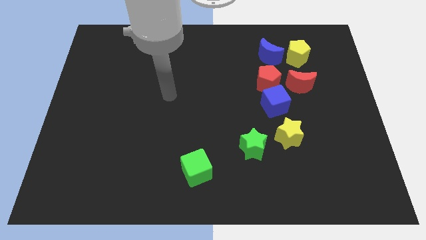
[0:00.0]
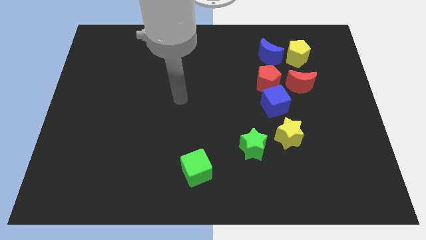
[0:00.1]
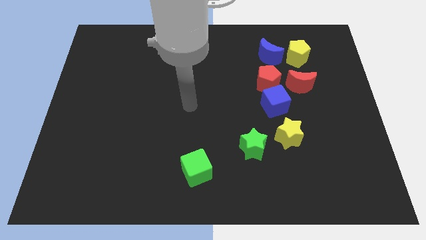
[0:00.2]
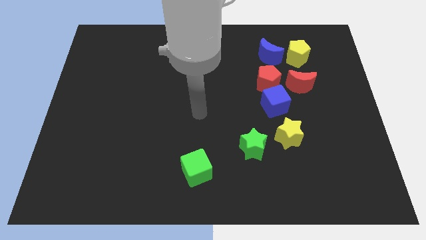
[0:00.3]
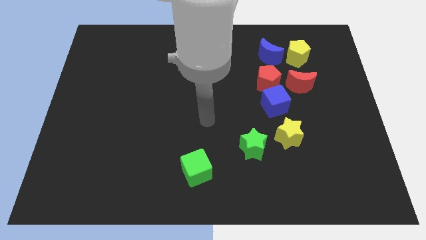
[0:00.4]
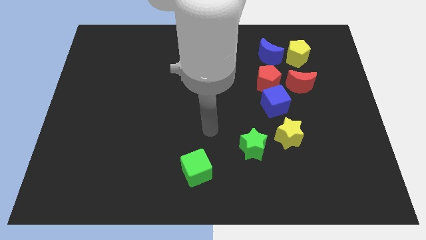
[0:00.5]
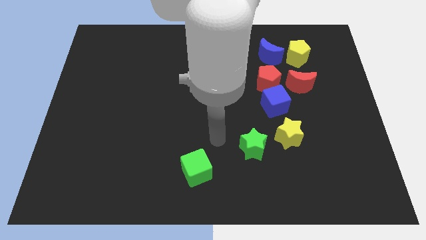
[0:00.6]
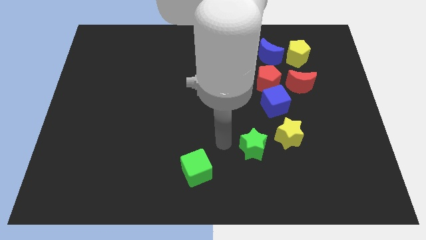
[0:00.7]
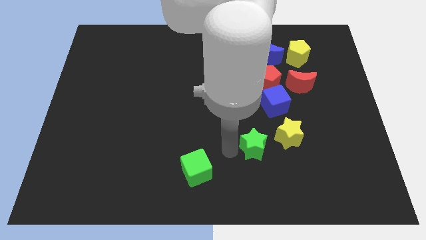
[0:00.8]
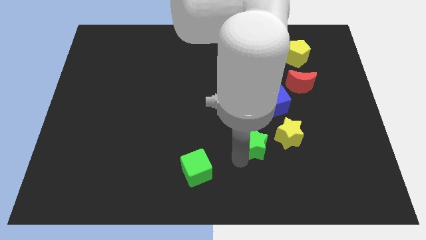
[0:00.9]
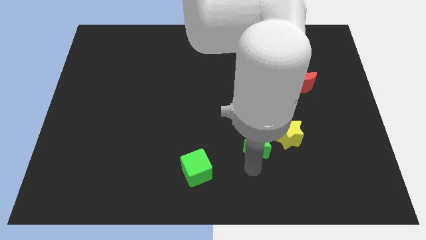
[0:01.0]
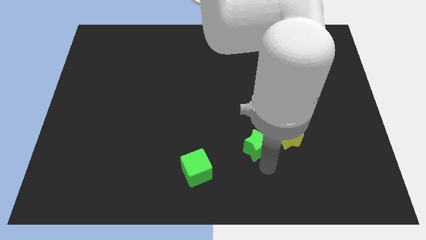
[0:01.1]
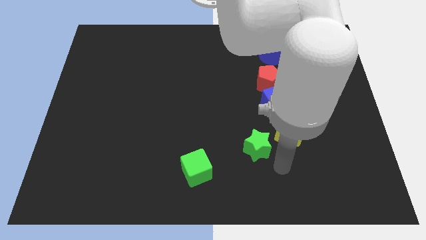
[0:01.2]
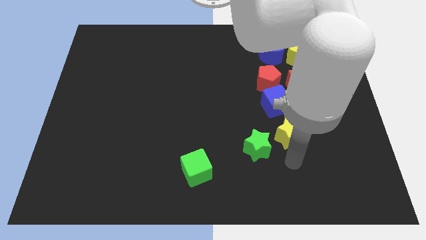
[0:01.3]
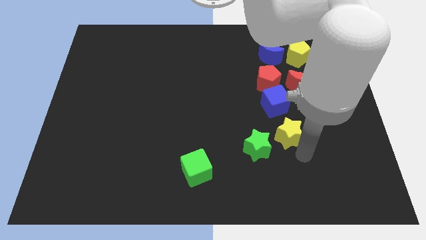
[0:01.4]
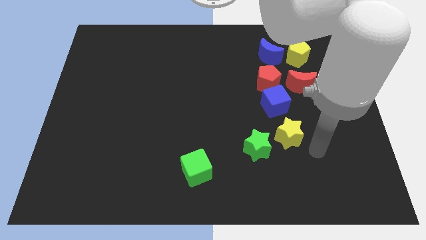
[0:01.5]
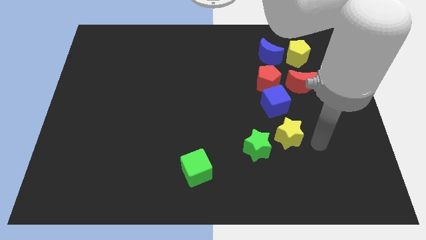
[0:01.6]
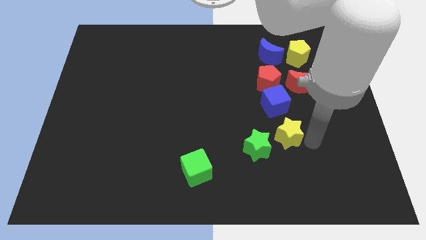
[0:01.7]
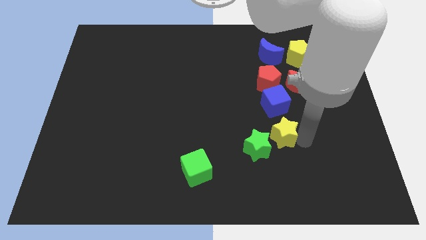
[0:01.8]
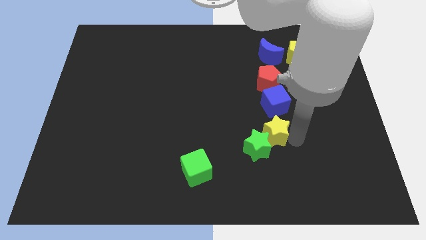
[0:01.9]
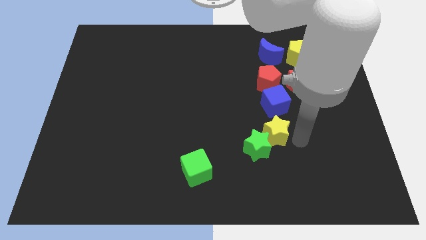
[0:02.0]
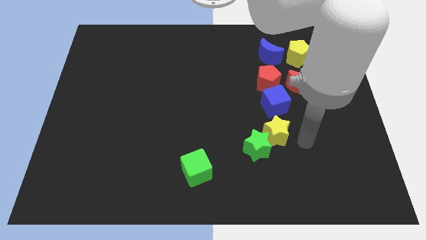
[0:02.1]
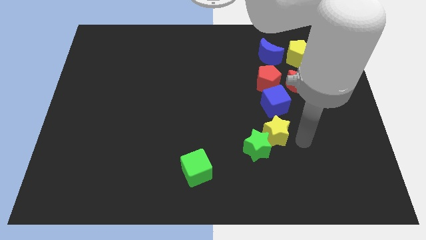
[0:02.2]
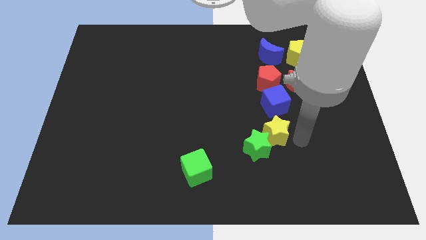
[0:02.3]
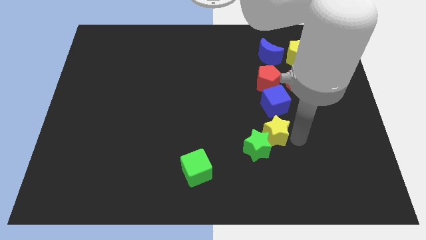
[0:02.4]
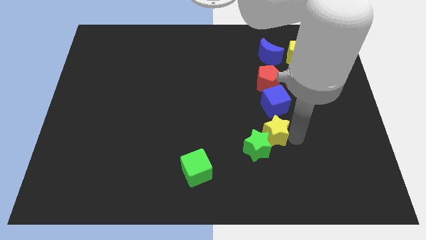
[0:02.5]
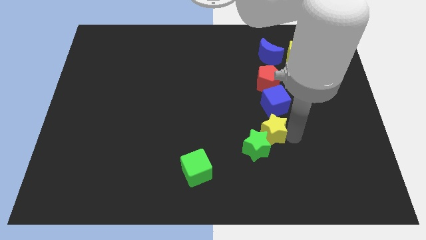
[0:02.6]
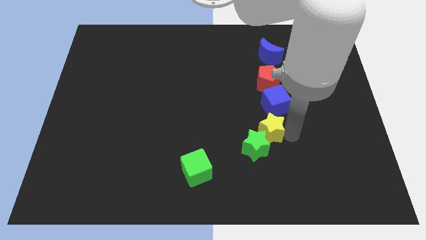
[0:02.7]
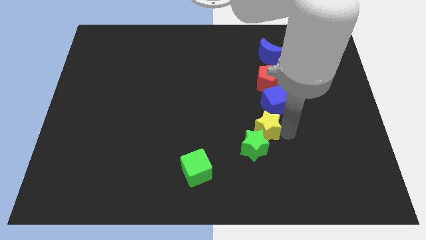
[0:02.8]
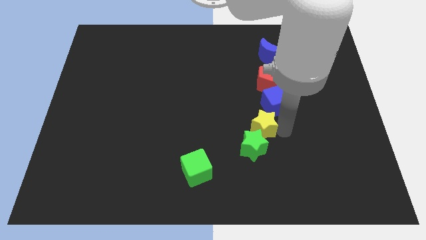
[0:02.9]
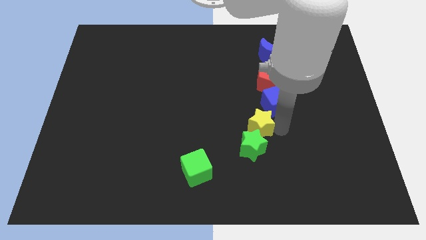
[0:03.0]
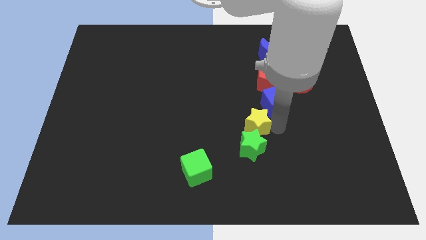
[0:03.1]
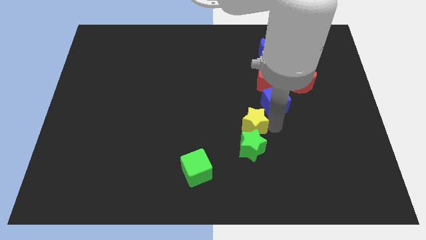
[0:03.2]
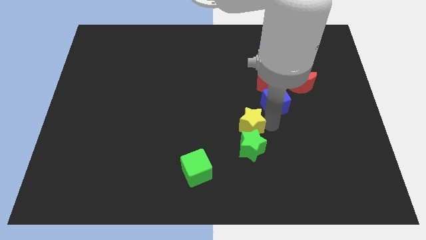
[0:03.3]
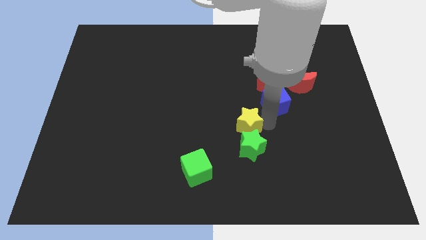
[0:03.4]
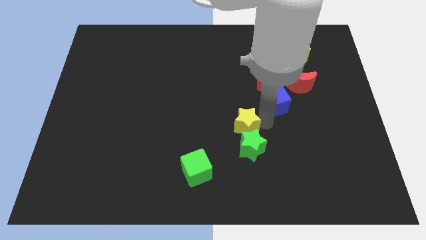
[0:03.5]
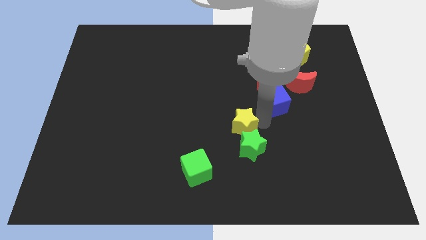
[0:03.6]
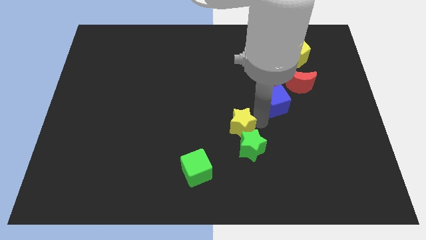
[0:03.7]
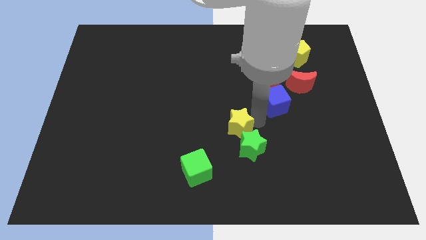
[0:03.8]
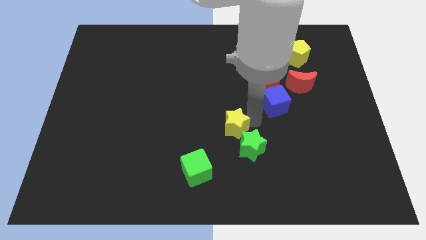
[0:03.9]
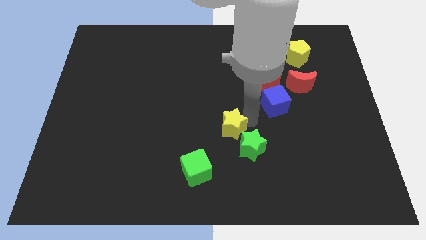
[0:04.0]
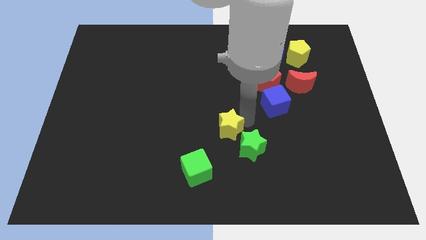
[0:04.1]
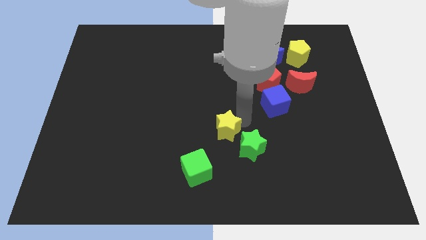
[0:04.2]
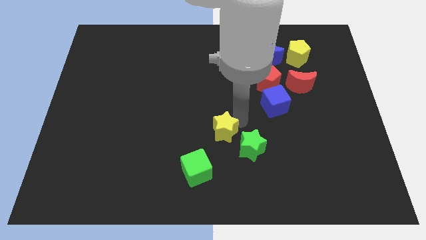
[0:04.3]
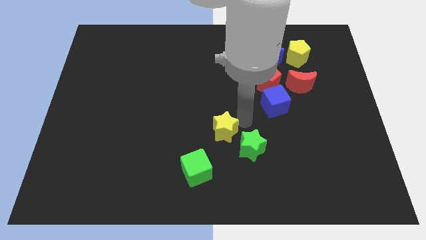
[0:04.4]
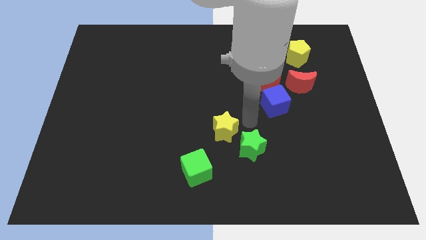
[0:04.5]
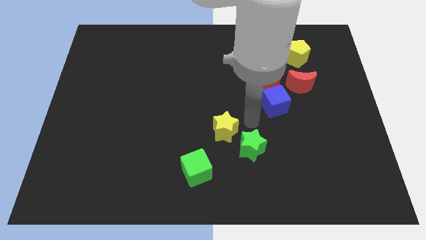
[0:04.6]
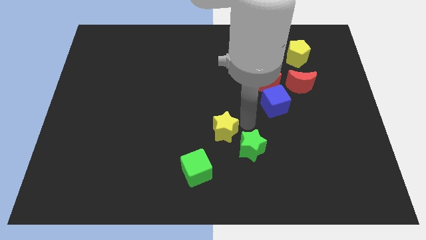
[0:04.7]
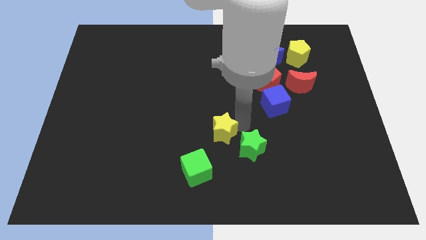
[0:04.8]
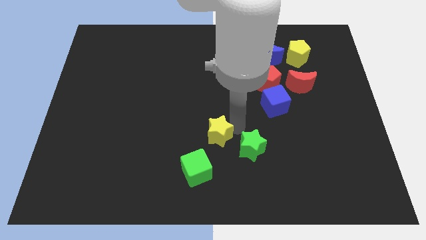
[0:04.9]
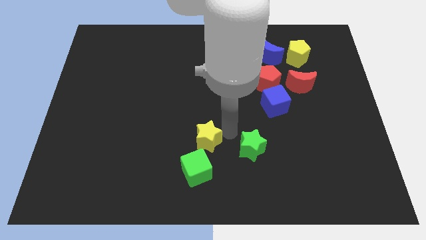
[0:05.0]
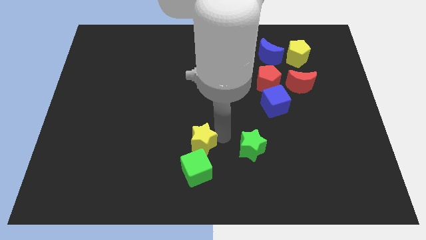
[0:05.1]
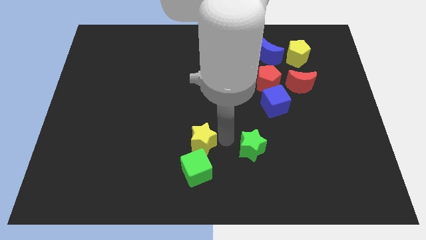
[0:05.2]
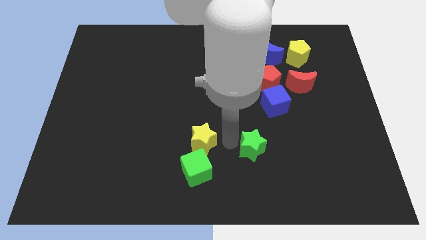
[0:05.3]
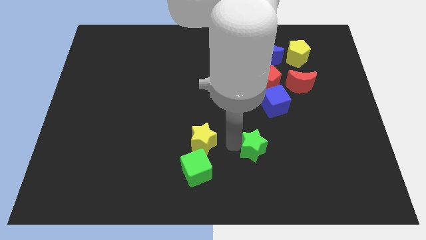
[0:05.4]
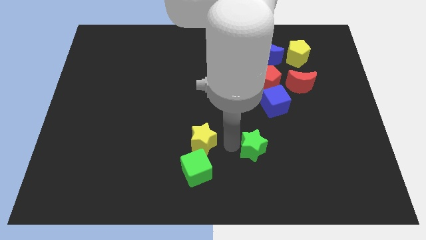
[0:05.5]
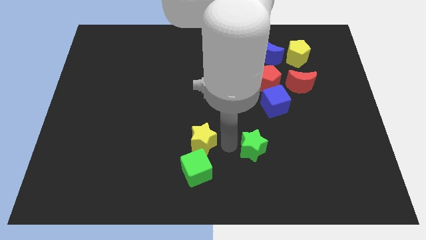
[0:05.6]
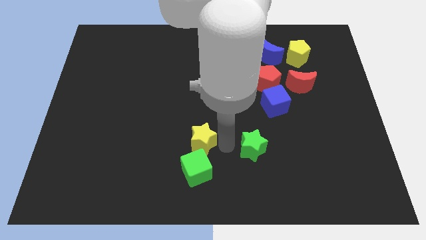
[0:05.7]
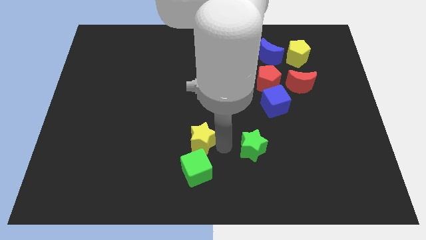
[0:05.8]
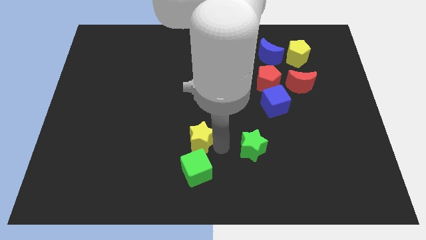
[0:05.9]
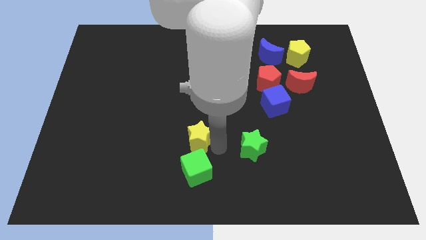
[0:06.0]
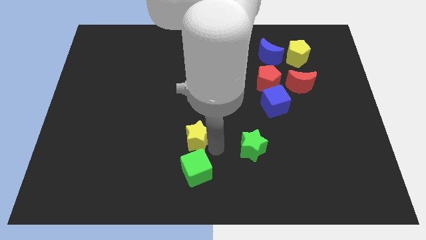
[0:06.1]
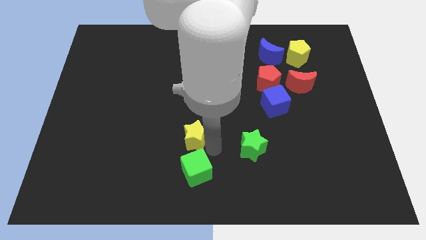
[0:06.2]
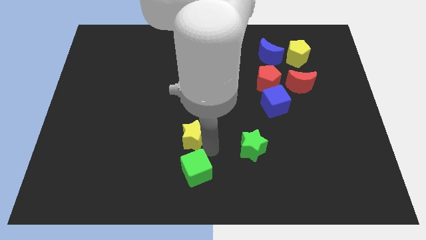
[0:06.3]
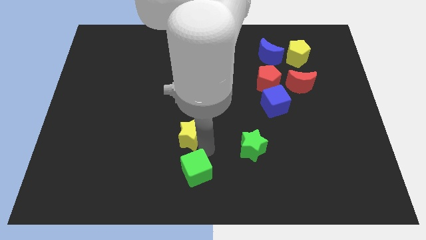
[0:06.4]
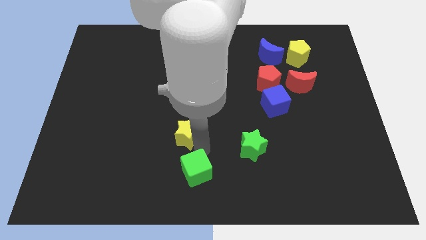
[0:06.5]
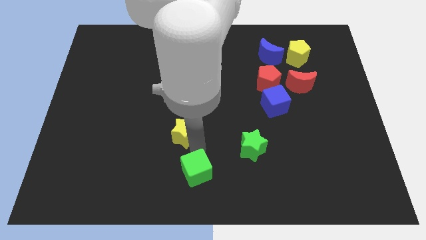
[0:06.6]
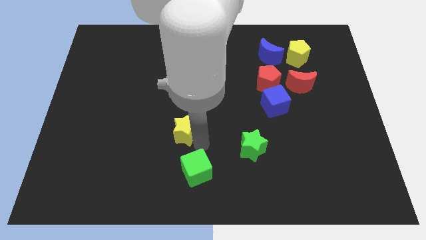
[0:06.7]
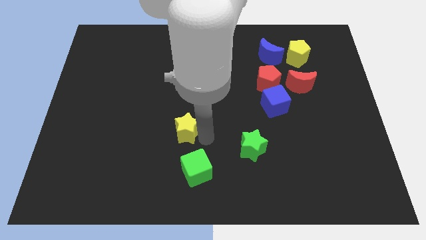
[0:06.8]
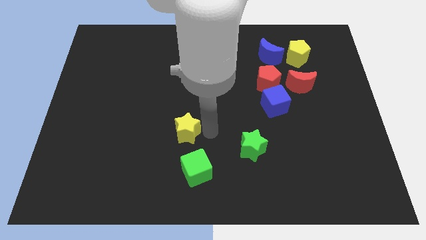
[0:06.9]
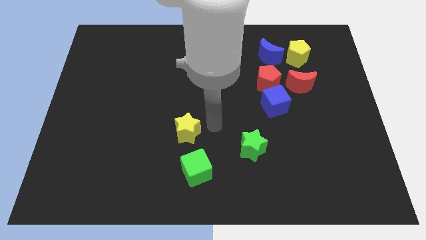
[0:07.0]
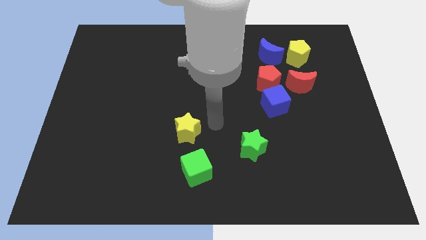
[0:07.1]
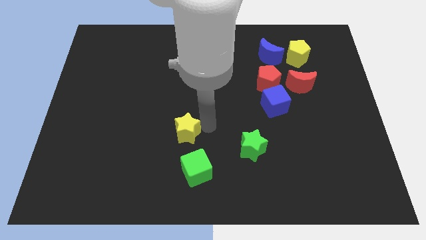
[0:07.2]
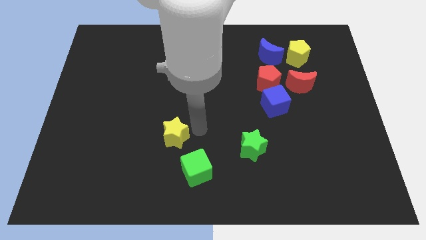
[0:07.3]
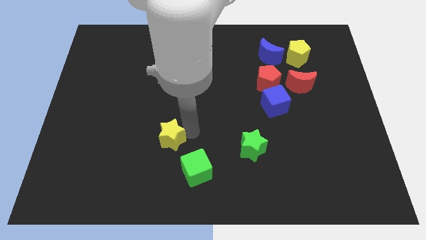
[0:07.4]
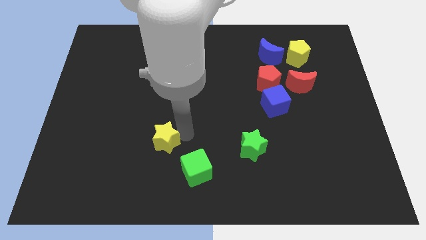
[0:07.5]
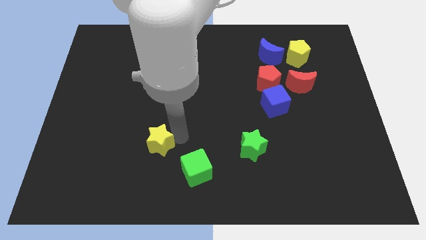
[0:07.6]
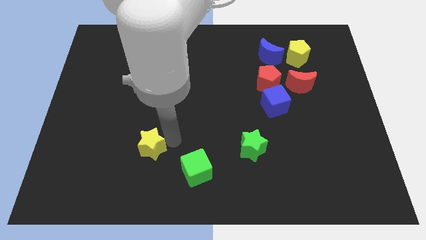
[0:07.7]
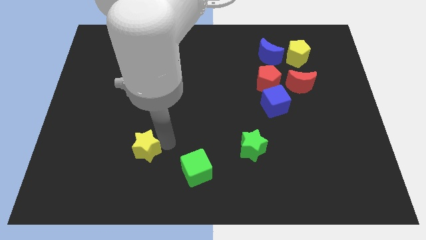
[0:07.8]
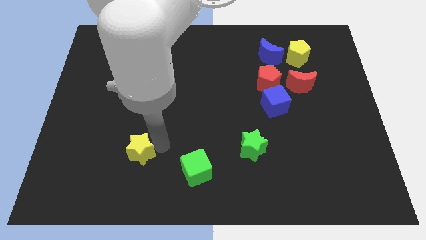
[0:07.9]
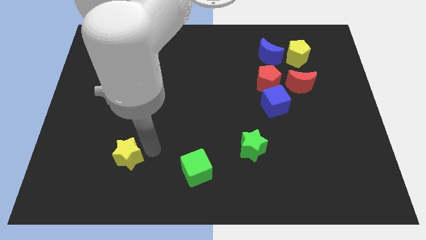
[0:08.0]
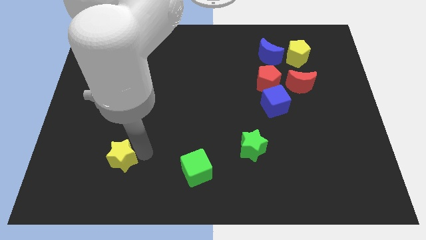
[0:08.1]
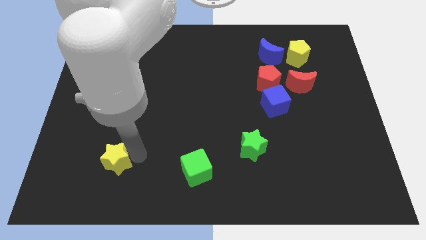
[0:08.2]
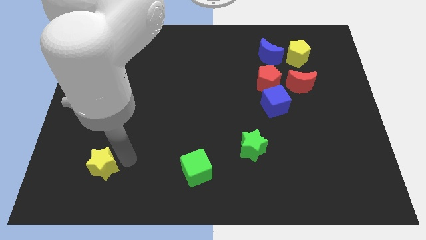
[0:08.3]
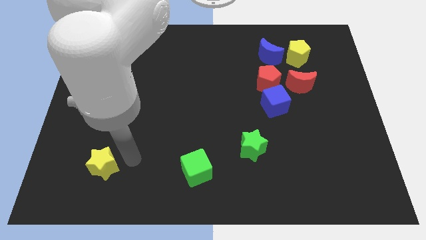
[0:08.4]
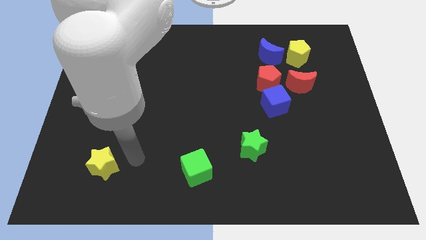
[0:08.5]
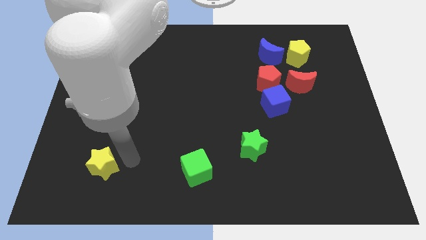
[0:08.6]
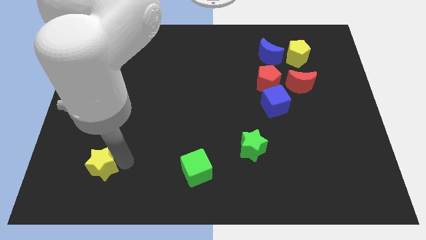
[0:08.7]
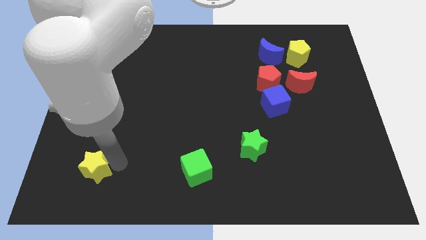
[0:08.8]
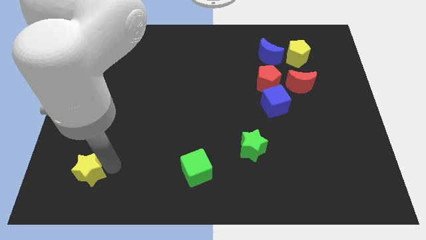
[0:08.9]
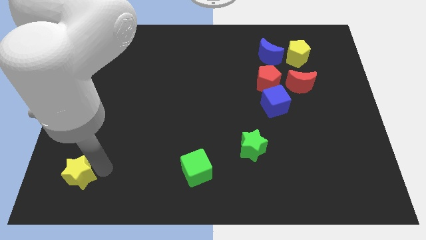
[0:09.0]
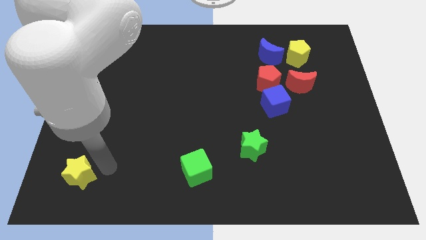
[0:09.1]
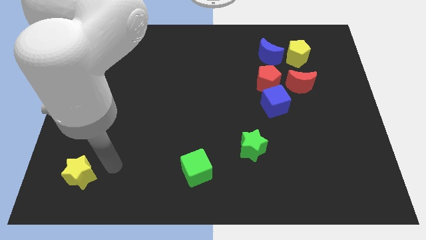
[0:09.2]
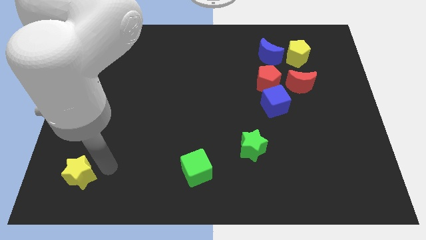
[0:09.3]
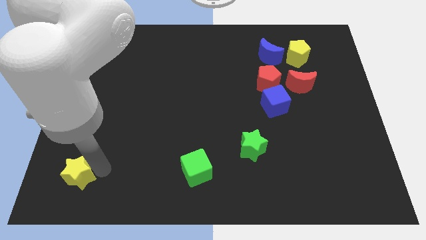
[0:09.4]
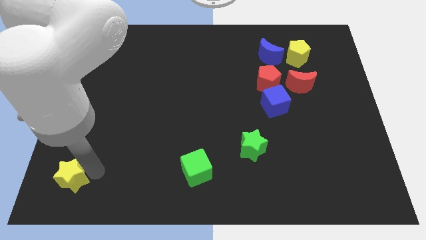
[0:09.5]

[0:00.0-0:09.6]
move the yellow star to the bottom left
